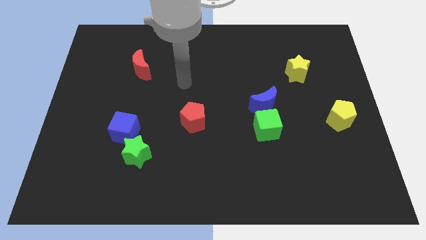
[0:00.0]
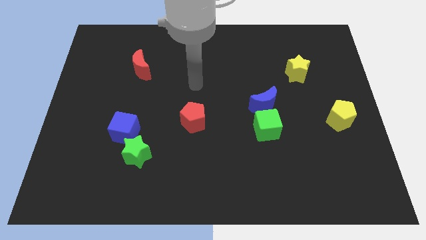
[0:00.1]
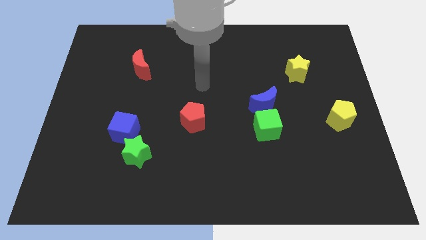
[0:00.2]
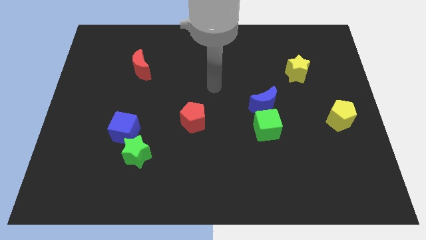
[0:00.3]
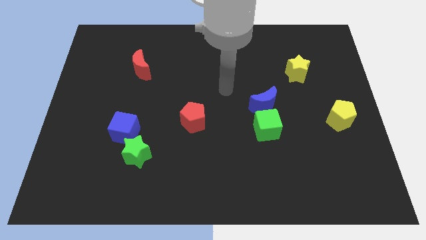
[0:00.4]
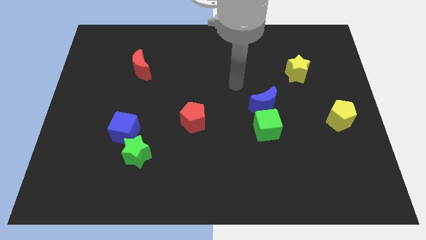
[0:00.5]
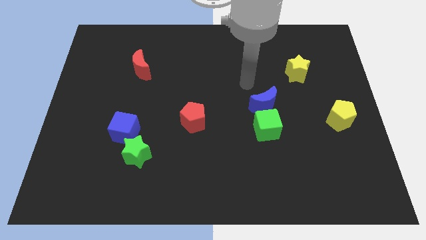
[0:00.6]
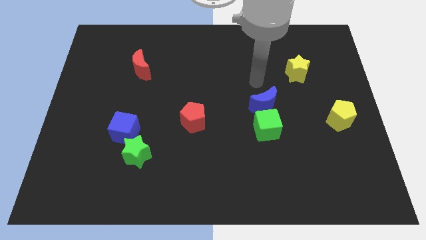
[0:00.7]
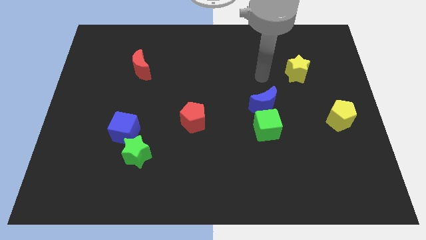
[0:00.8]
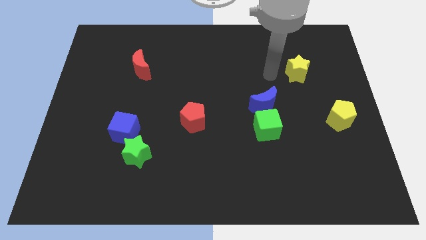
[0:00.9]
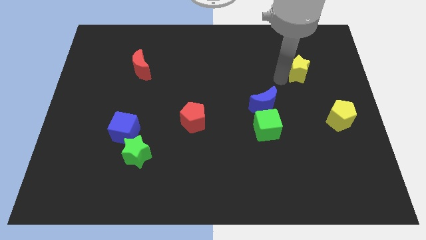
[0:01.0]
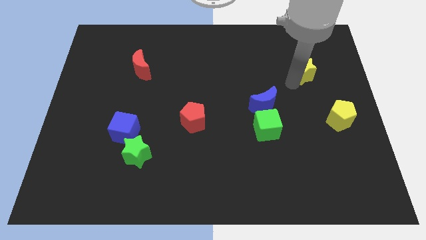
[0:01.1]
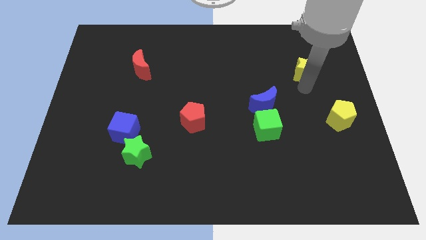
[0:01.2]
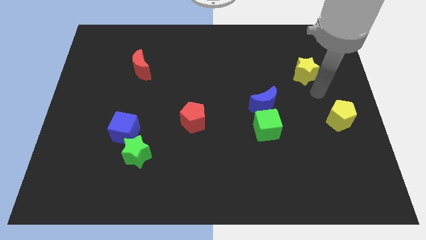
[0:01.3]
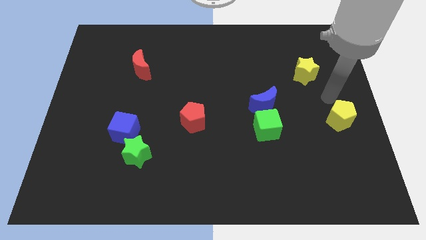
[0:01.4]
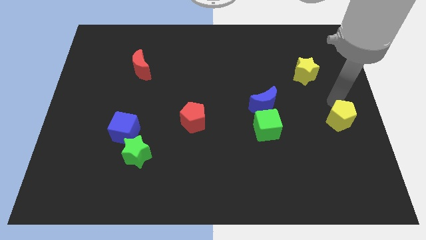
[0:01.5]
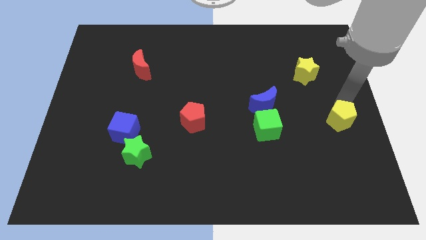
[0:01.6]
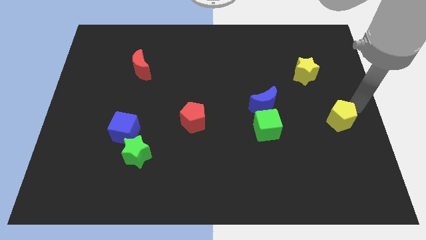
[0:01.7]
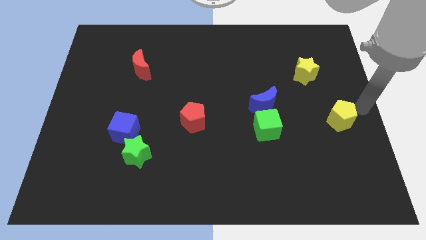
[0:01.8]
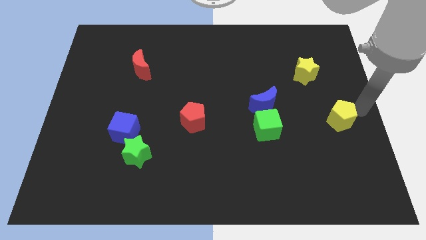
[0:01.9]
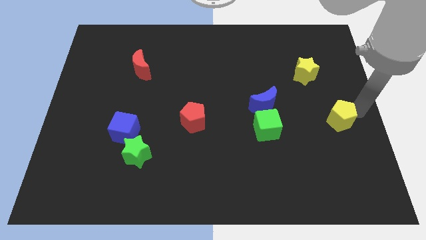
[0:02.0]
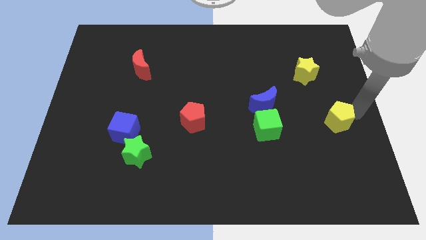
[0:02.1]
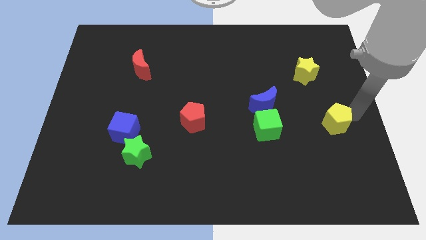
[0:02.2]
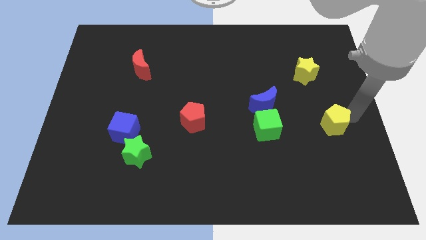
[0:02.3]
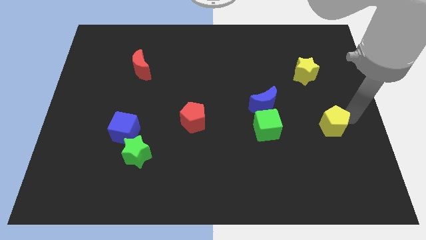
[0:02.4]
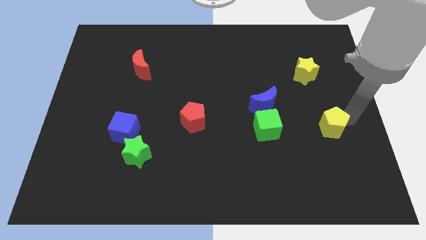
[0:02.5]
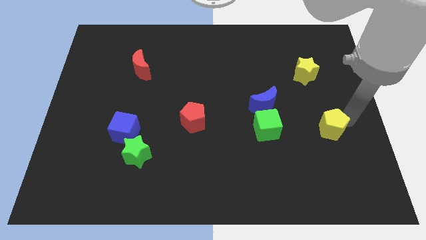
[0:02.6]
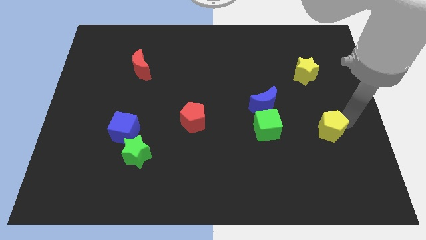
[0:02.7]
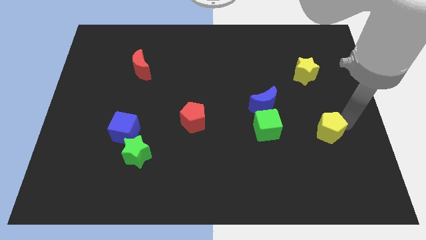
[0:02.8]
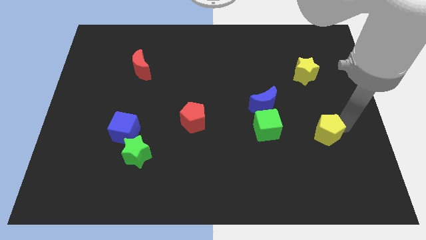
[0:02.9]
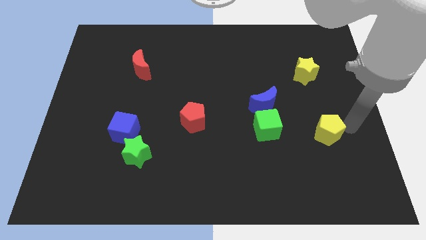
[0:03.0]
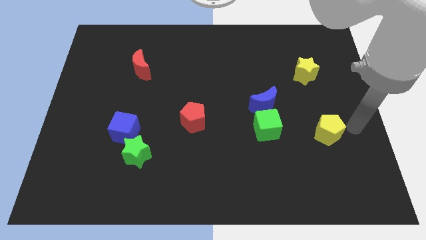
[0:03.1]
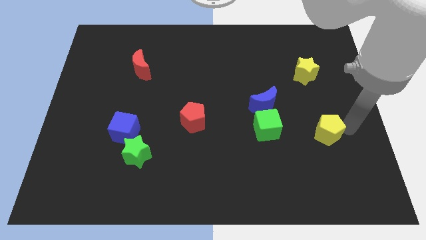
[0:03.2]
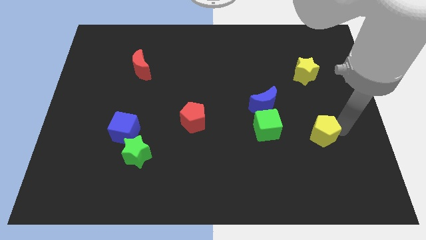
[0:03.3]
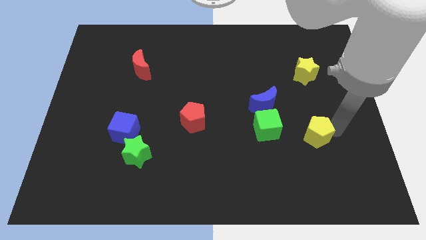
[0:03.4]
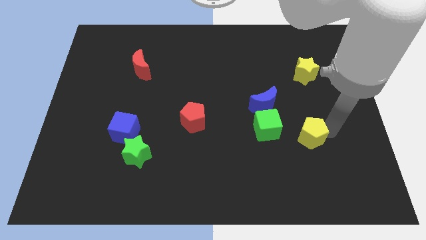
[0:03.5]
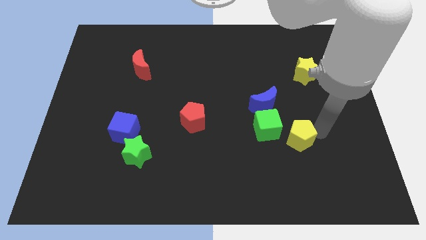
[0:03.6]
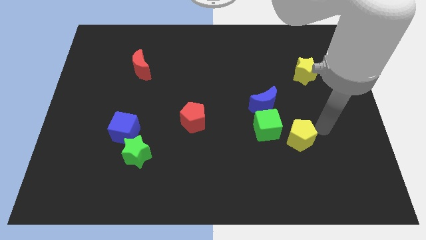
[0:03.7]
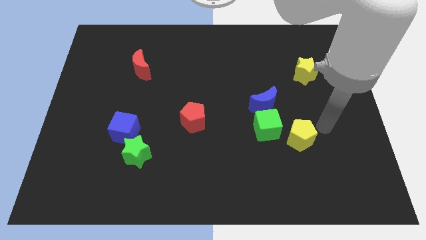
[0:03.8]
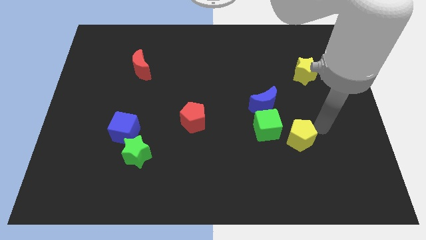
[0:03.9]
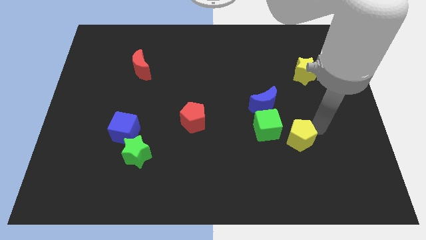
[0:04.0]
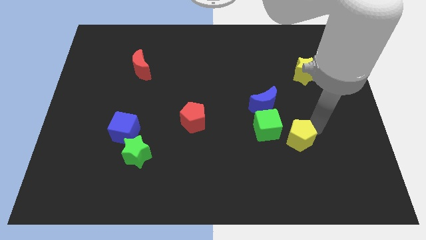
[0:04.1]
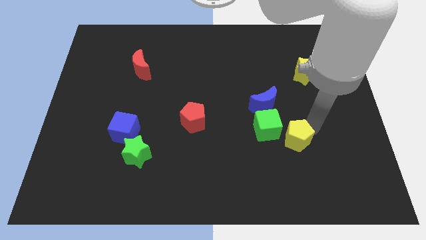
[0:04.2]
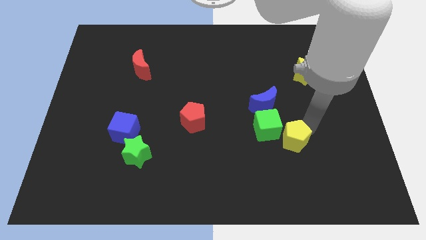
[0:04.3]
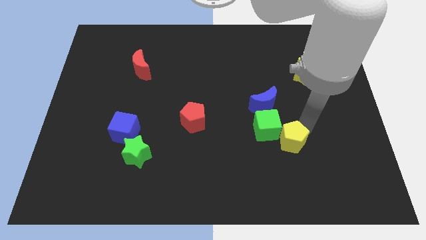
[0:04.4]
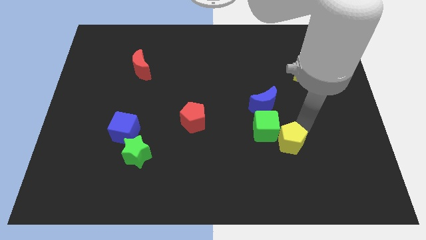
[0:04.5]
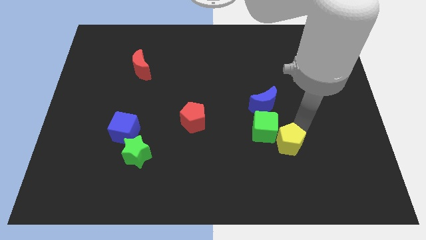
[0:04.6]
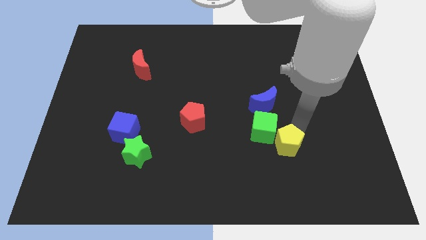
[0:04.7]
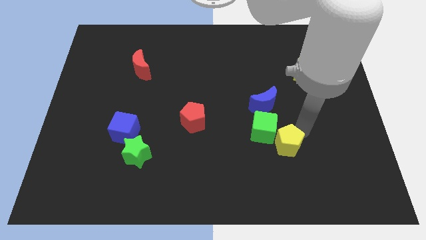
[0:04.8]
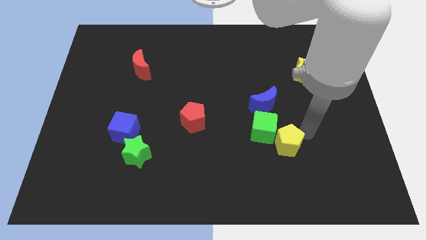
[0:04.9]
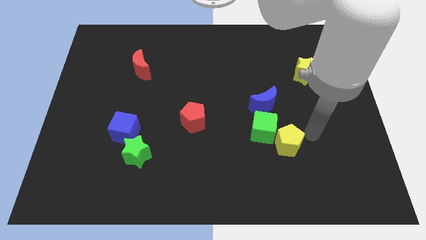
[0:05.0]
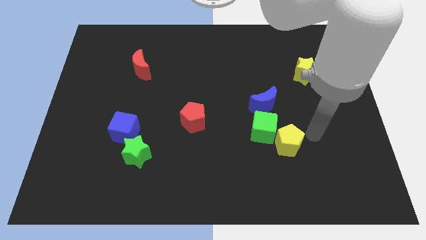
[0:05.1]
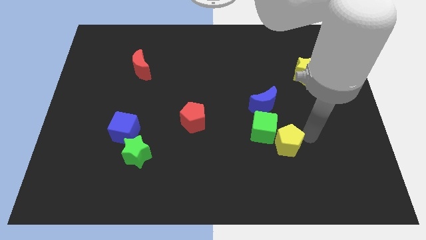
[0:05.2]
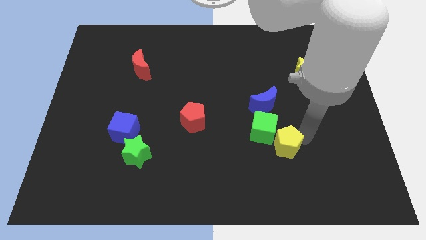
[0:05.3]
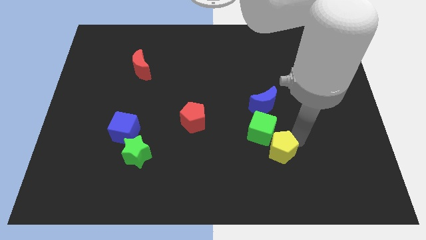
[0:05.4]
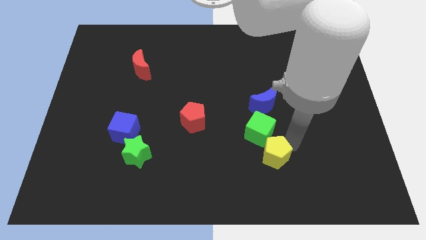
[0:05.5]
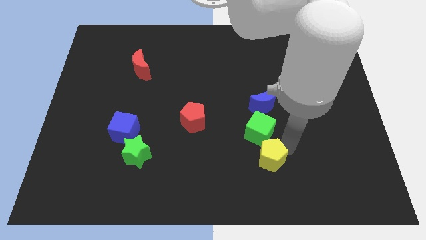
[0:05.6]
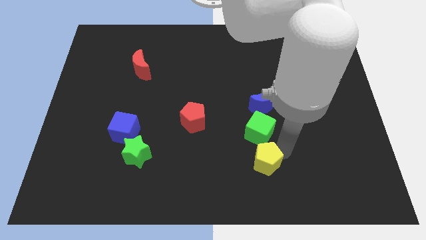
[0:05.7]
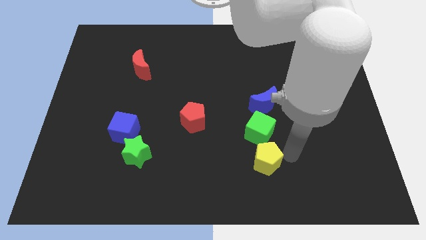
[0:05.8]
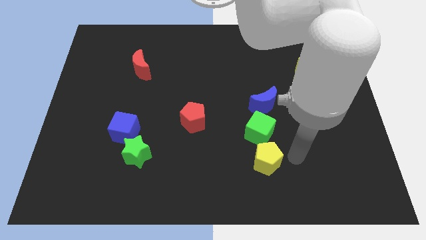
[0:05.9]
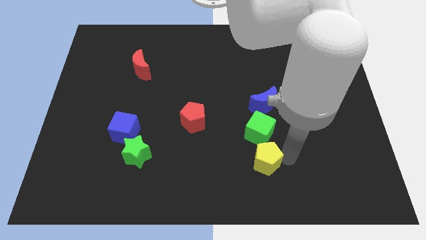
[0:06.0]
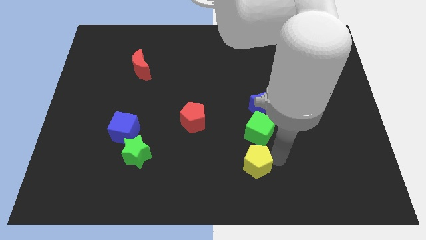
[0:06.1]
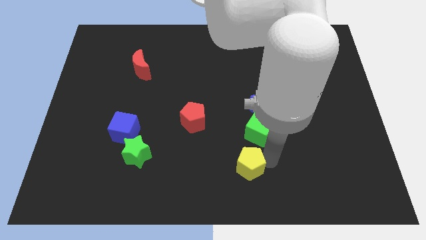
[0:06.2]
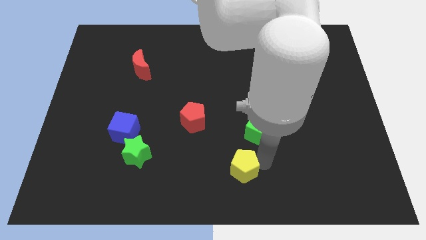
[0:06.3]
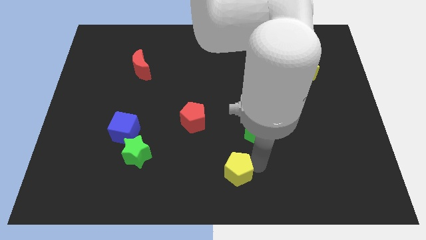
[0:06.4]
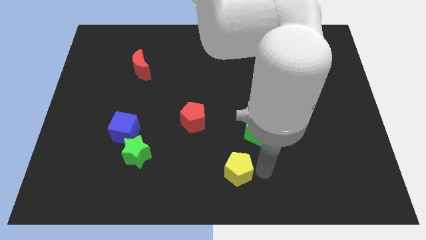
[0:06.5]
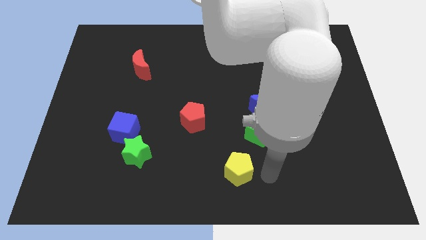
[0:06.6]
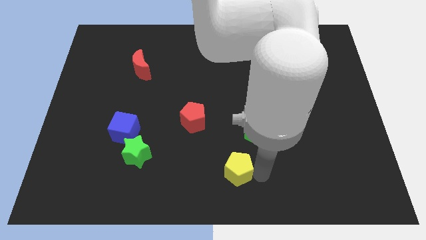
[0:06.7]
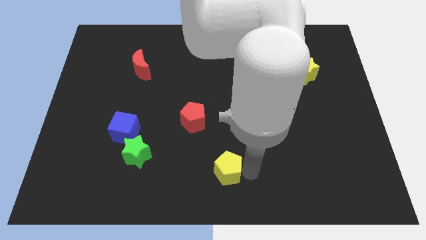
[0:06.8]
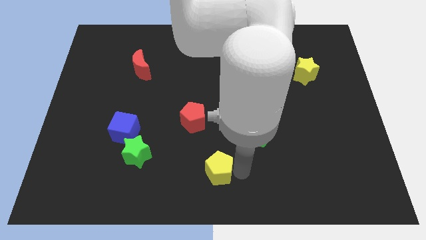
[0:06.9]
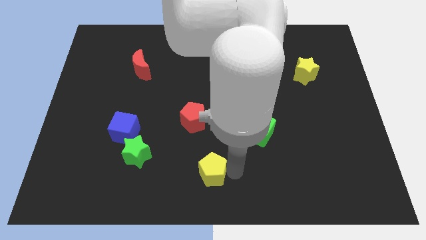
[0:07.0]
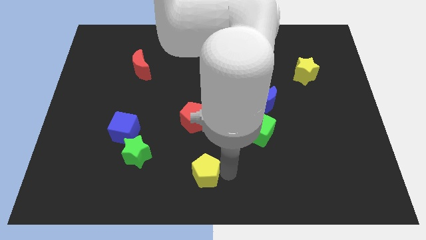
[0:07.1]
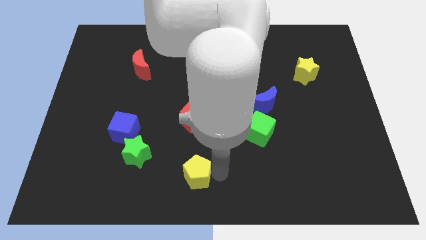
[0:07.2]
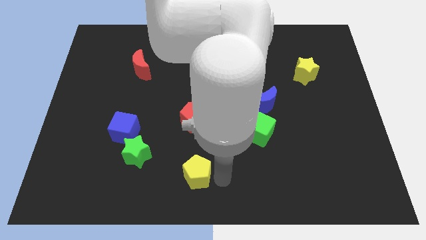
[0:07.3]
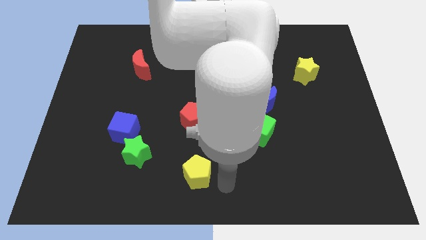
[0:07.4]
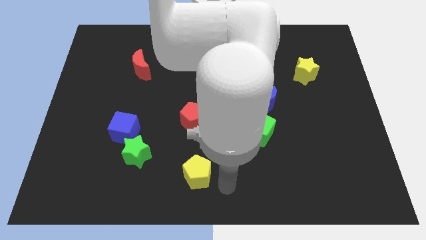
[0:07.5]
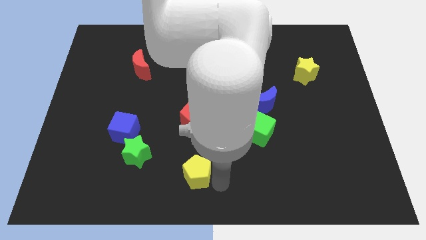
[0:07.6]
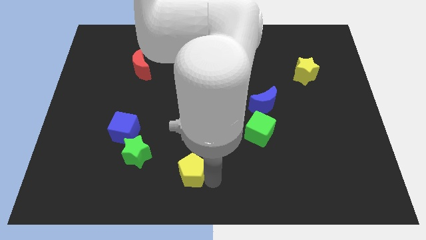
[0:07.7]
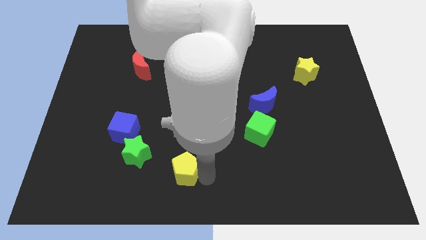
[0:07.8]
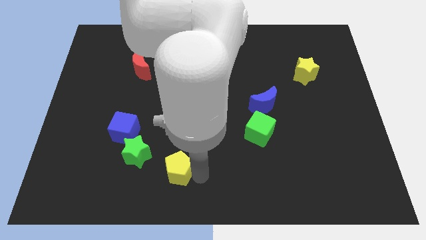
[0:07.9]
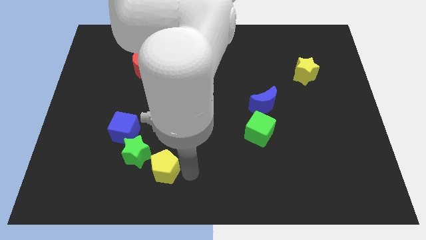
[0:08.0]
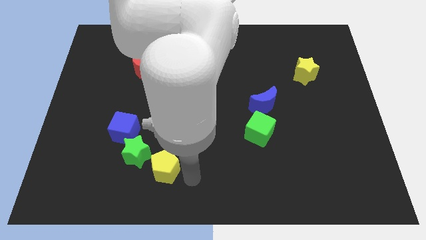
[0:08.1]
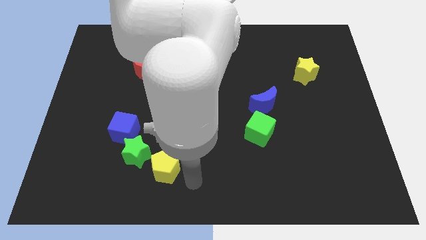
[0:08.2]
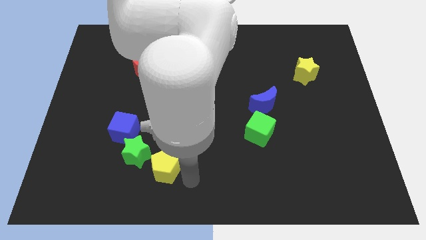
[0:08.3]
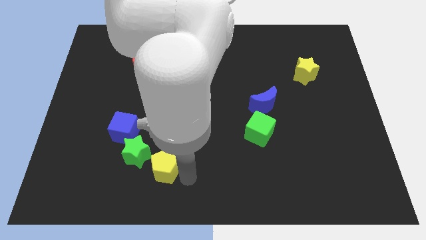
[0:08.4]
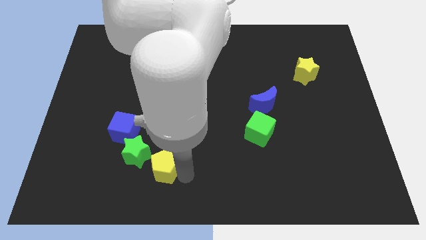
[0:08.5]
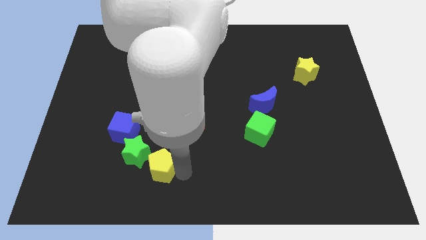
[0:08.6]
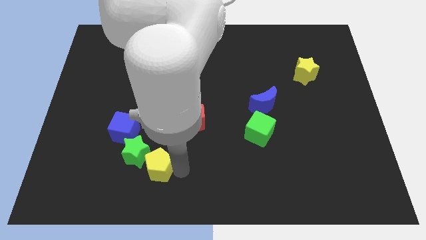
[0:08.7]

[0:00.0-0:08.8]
move the yellow pentagon close to the green star
